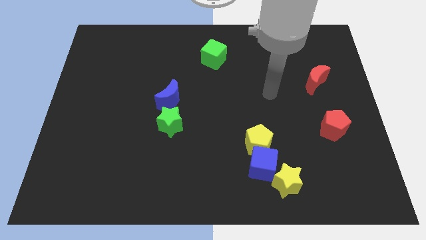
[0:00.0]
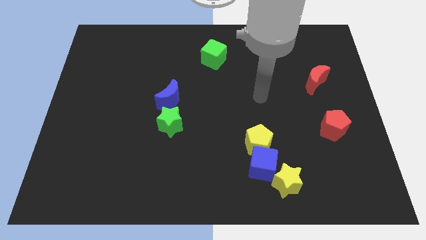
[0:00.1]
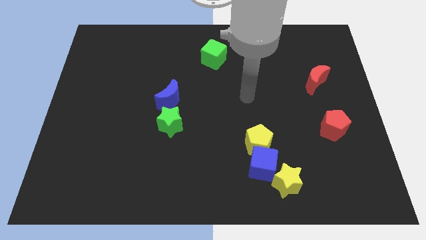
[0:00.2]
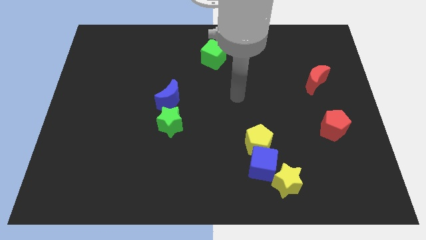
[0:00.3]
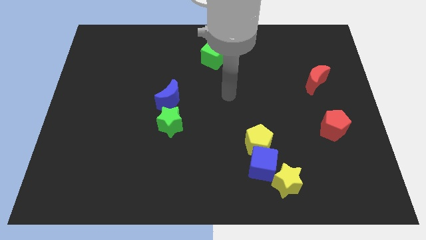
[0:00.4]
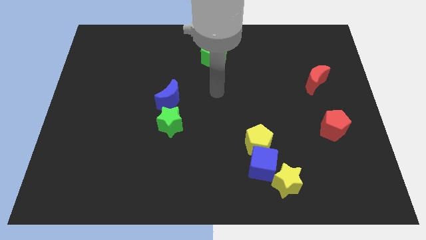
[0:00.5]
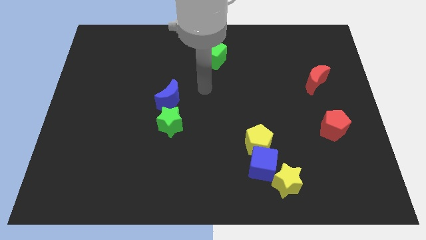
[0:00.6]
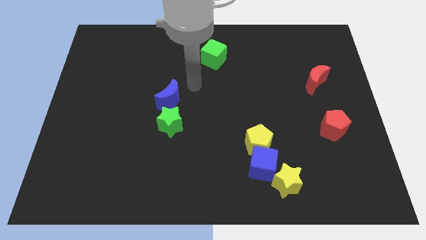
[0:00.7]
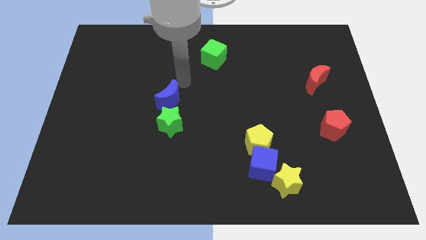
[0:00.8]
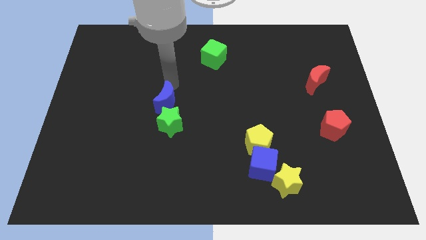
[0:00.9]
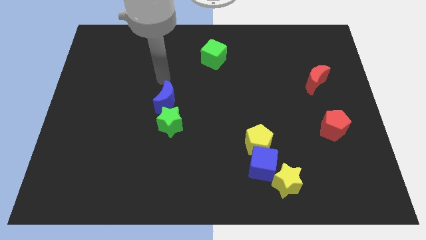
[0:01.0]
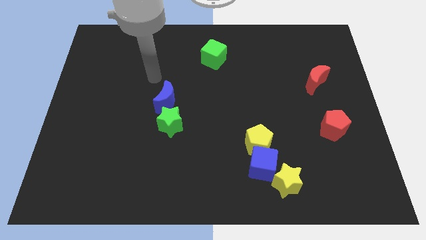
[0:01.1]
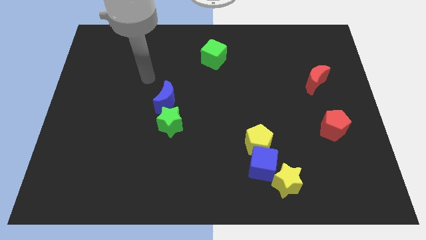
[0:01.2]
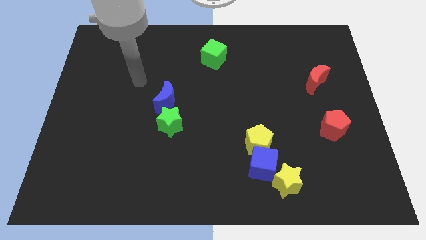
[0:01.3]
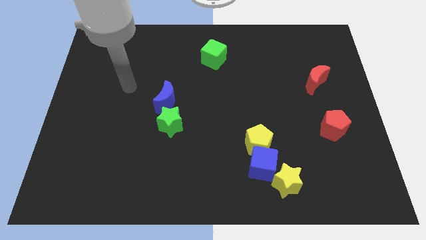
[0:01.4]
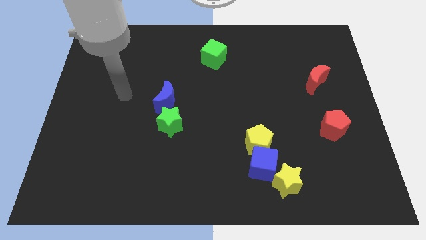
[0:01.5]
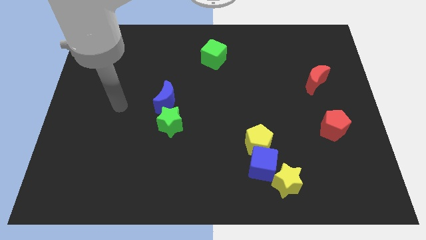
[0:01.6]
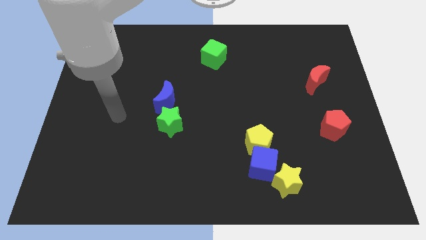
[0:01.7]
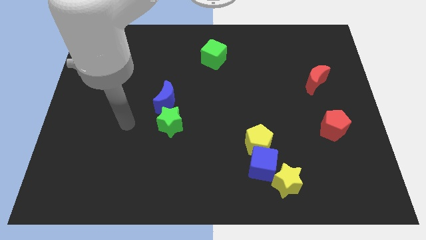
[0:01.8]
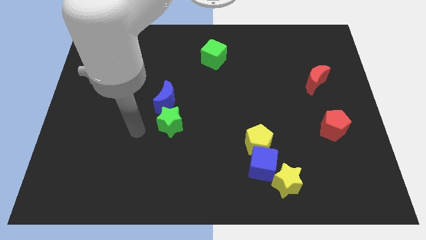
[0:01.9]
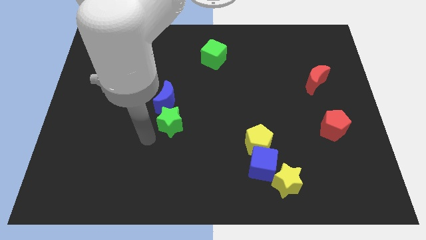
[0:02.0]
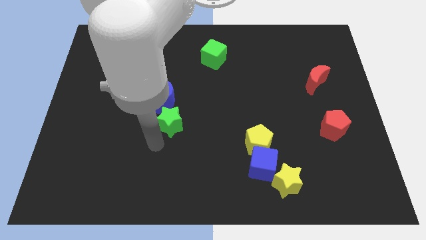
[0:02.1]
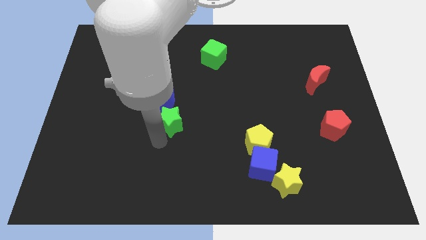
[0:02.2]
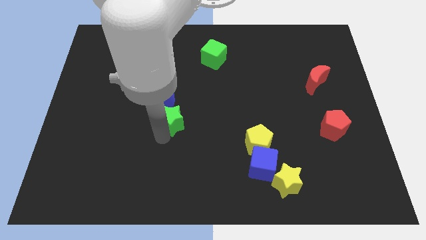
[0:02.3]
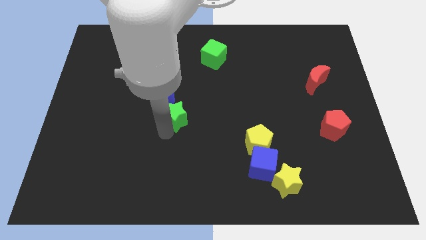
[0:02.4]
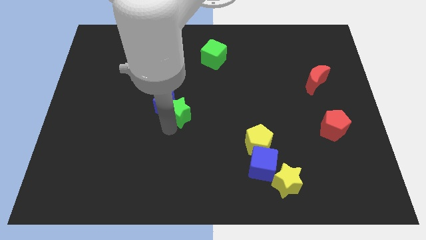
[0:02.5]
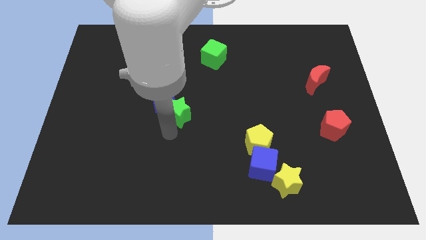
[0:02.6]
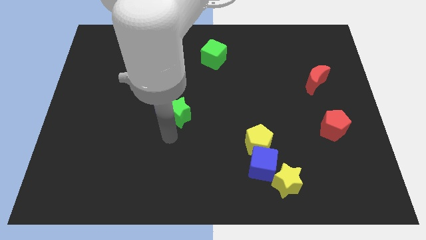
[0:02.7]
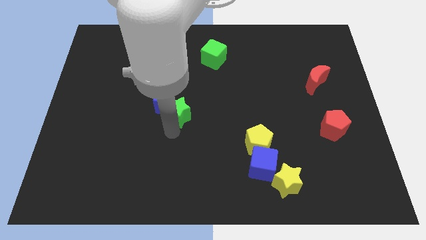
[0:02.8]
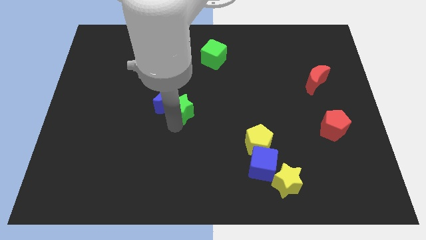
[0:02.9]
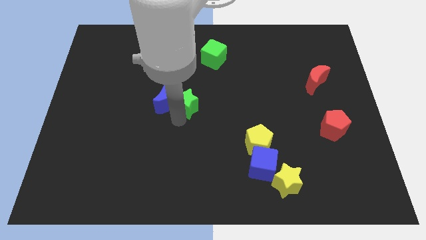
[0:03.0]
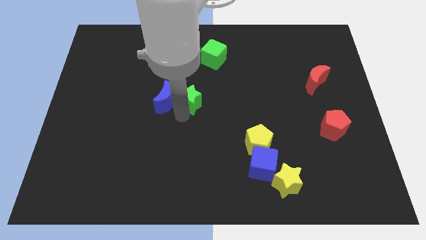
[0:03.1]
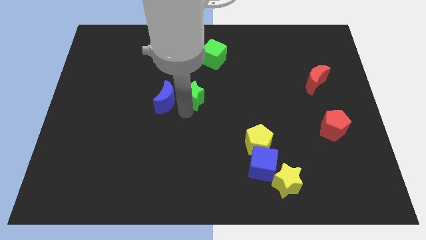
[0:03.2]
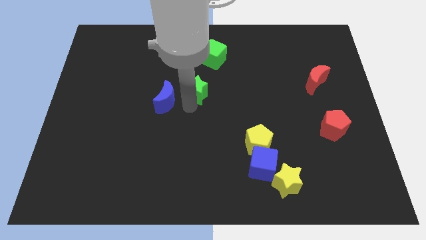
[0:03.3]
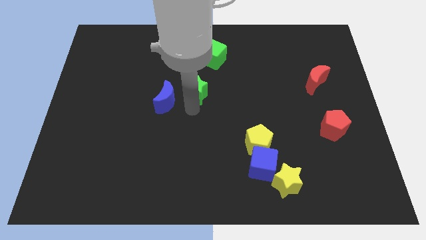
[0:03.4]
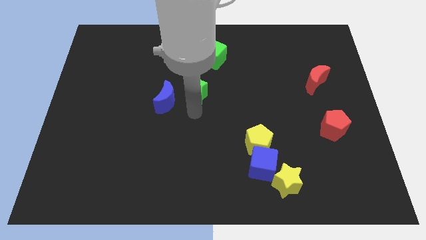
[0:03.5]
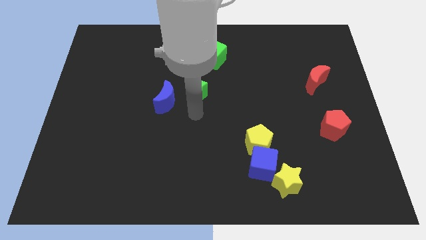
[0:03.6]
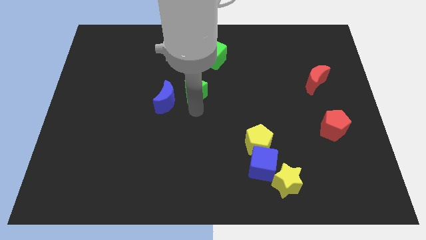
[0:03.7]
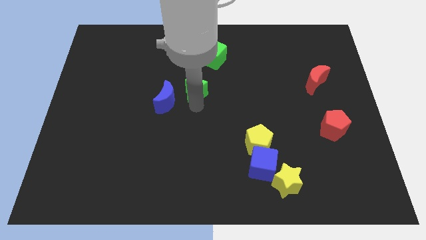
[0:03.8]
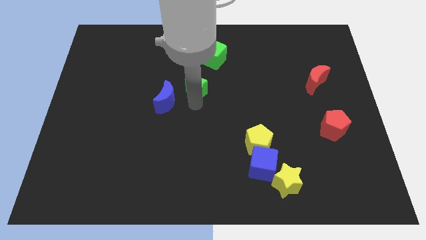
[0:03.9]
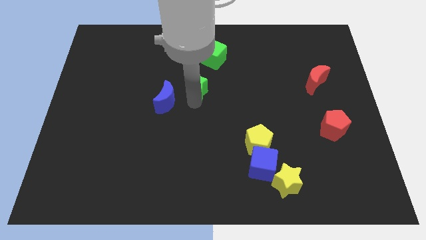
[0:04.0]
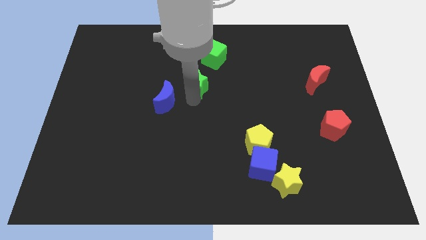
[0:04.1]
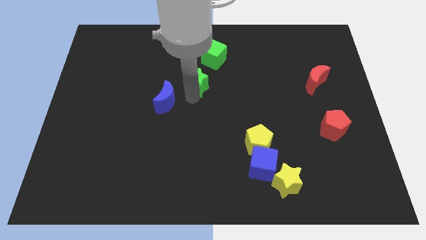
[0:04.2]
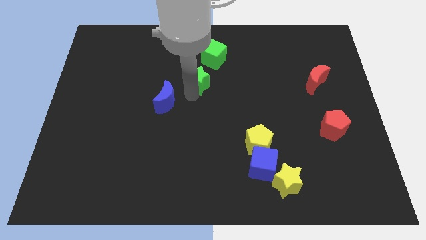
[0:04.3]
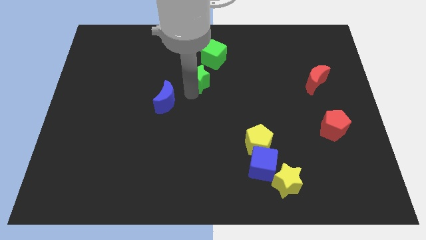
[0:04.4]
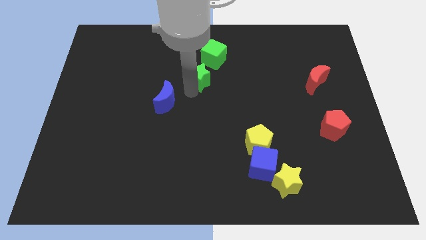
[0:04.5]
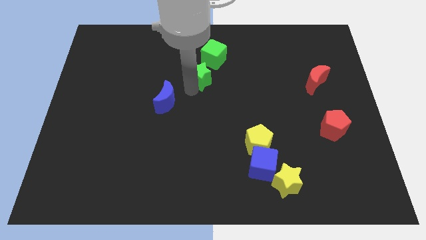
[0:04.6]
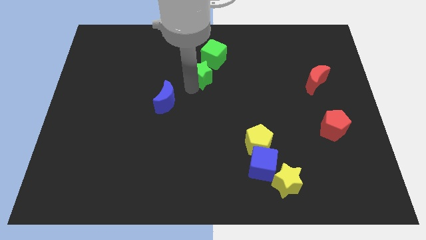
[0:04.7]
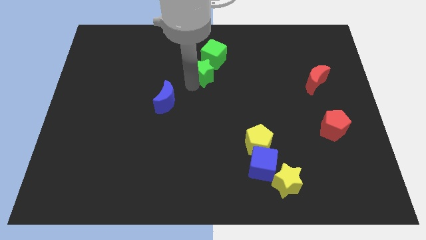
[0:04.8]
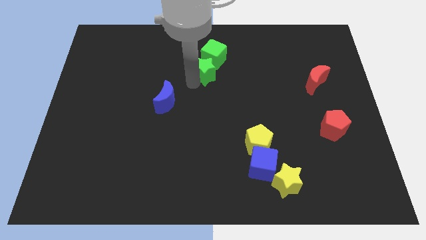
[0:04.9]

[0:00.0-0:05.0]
move the green star to the green cube

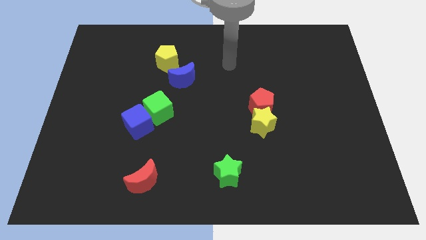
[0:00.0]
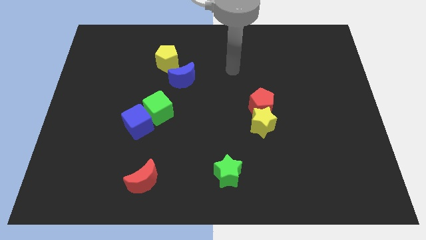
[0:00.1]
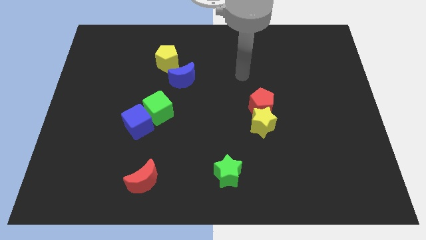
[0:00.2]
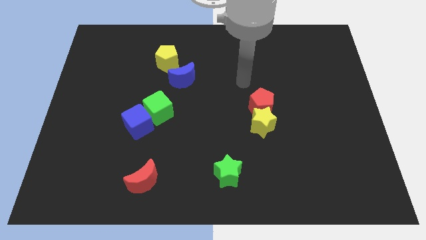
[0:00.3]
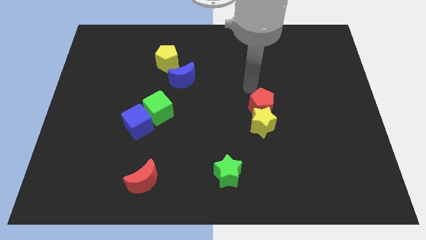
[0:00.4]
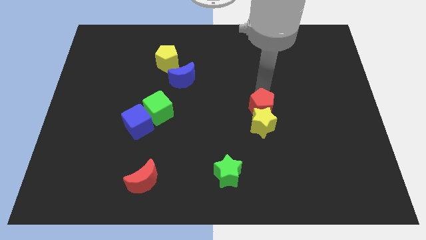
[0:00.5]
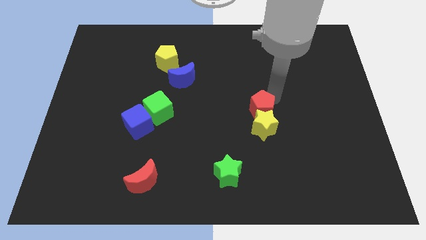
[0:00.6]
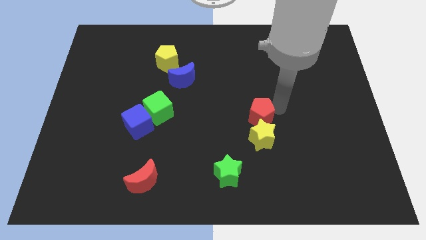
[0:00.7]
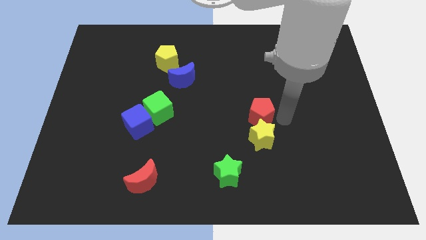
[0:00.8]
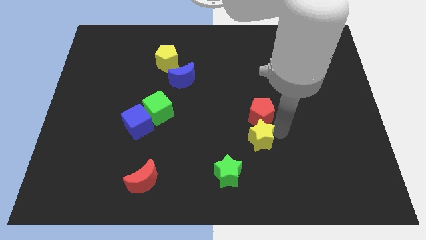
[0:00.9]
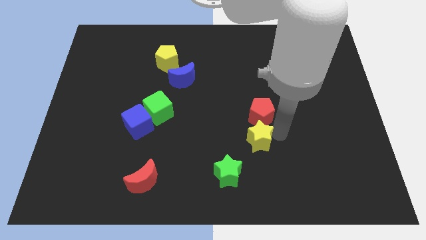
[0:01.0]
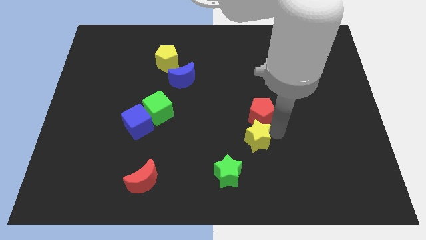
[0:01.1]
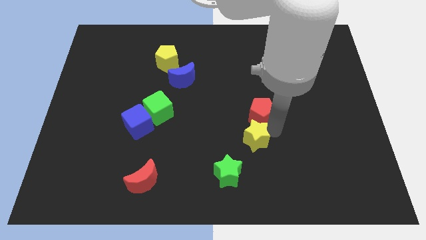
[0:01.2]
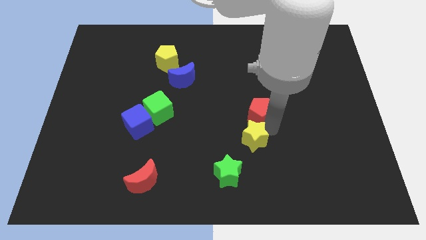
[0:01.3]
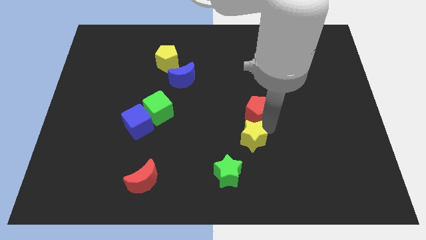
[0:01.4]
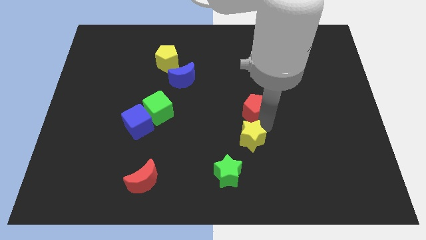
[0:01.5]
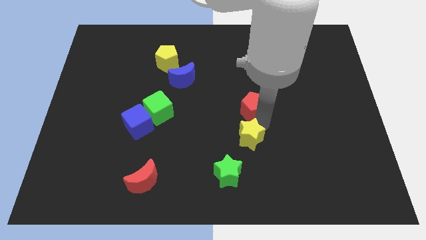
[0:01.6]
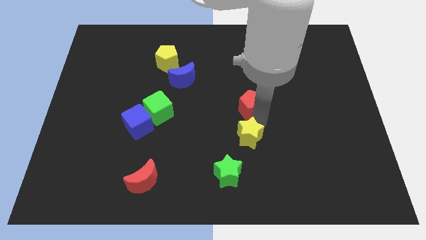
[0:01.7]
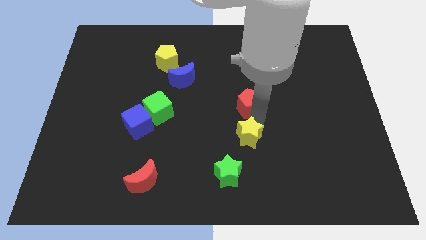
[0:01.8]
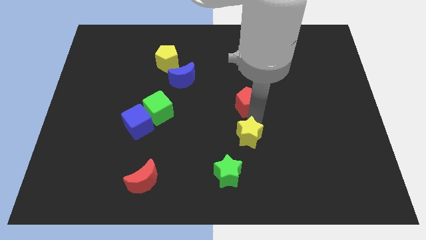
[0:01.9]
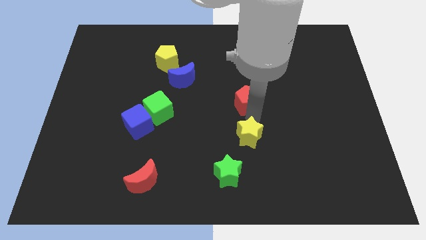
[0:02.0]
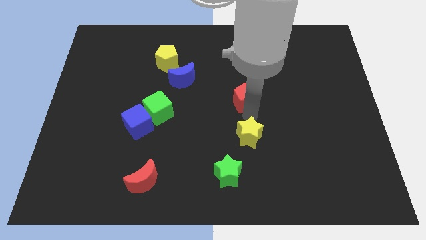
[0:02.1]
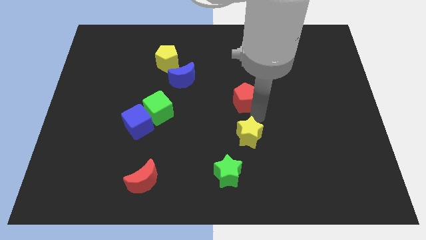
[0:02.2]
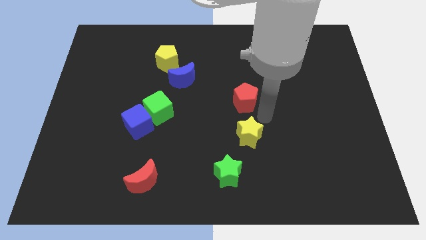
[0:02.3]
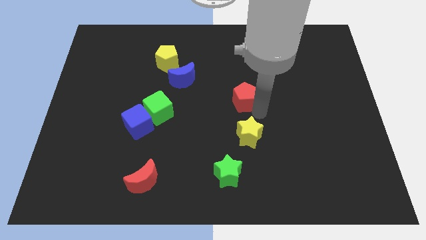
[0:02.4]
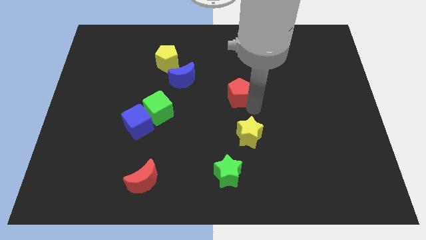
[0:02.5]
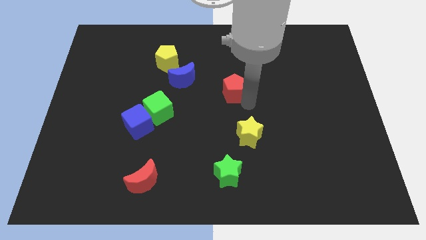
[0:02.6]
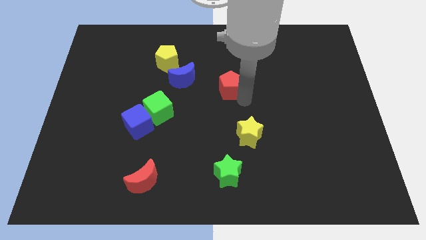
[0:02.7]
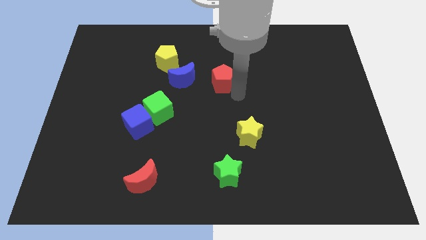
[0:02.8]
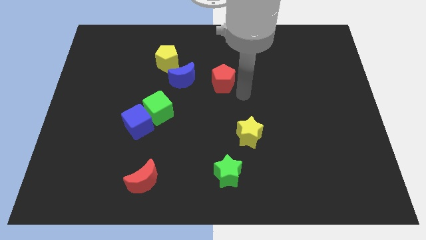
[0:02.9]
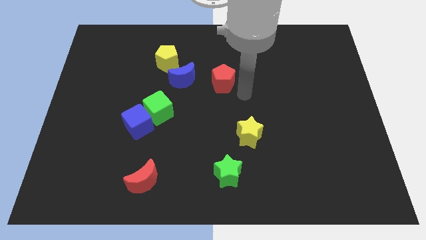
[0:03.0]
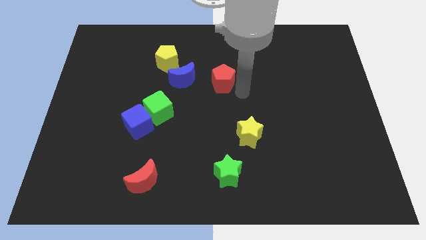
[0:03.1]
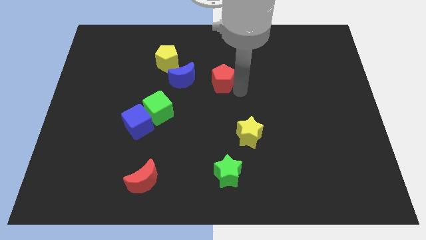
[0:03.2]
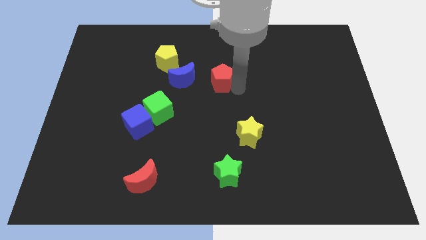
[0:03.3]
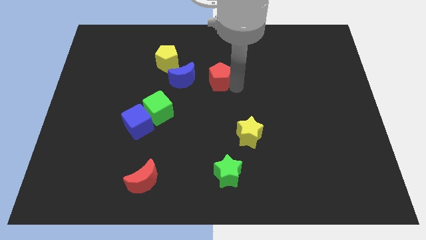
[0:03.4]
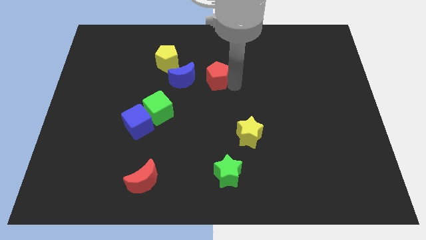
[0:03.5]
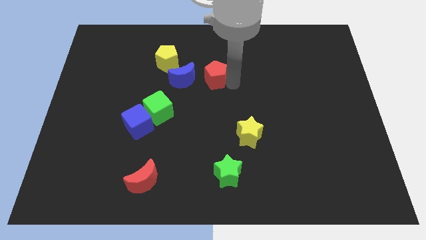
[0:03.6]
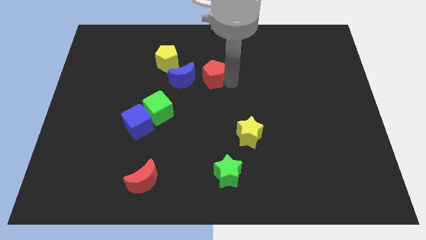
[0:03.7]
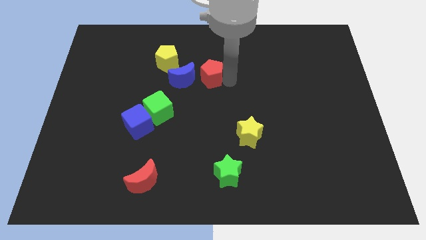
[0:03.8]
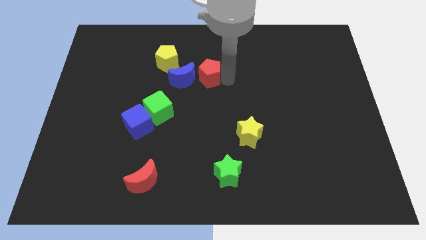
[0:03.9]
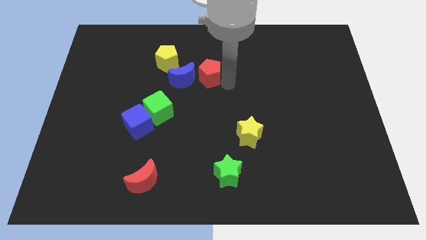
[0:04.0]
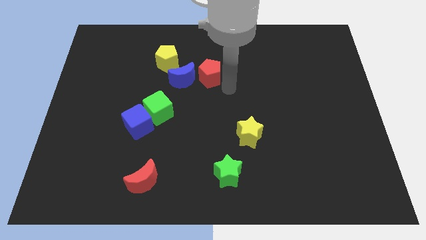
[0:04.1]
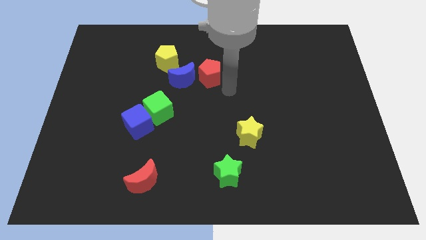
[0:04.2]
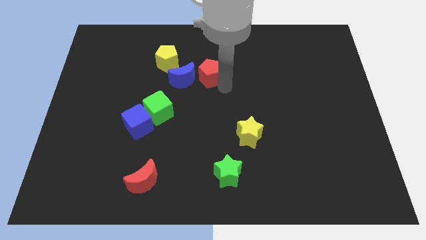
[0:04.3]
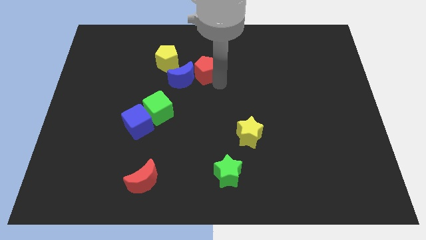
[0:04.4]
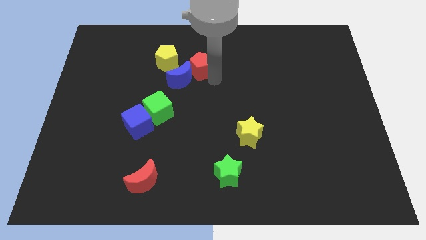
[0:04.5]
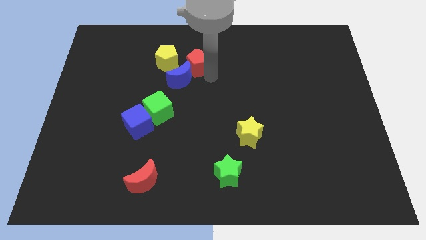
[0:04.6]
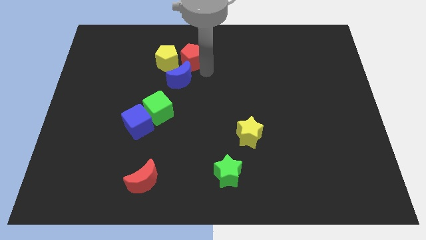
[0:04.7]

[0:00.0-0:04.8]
move the red pentagon next to the yellow pentagon
